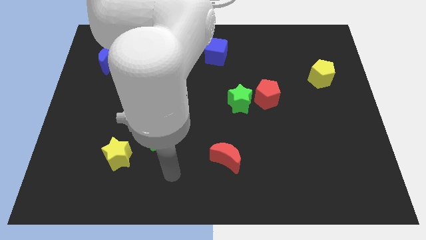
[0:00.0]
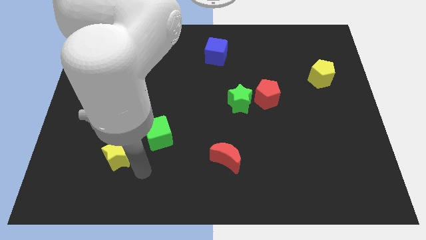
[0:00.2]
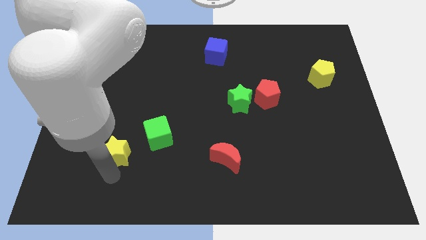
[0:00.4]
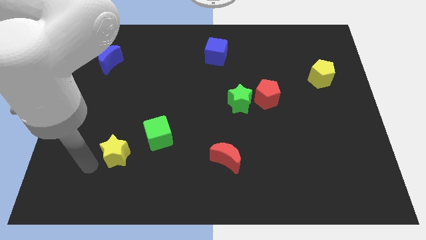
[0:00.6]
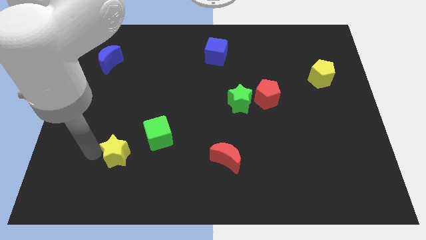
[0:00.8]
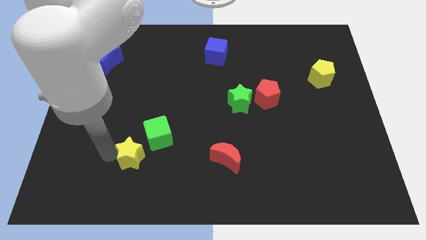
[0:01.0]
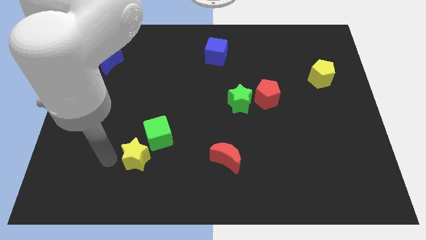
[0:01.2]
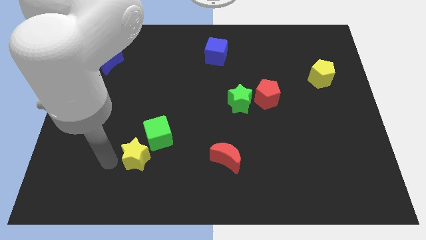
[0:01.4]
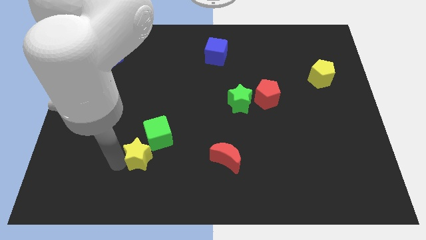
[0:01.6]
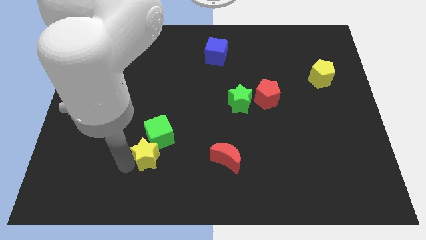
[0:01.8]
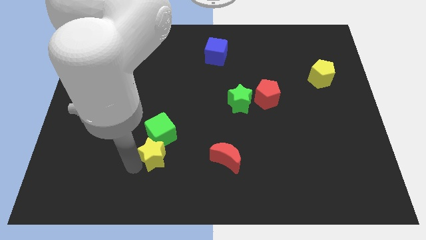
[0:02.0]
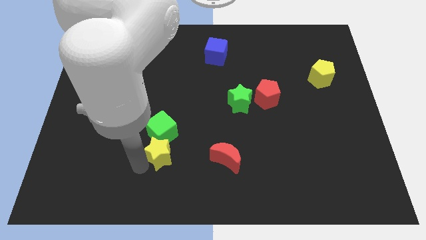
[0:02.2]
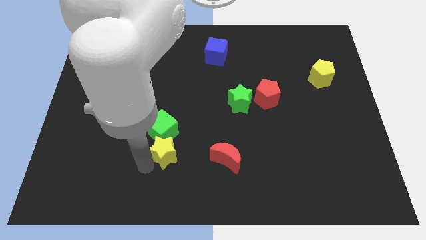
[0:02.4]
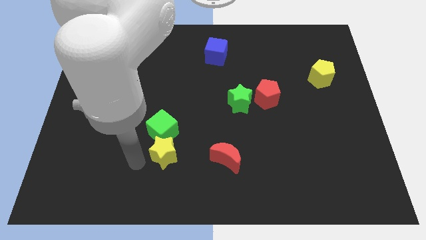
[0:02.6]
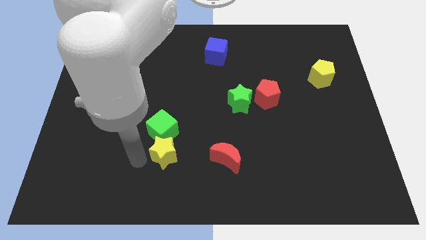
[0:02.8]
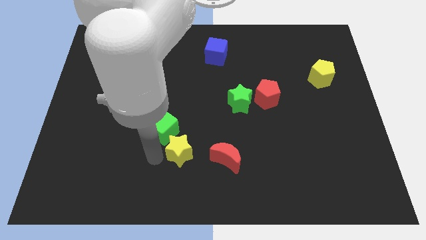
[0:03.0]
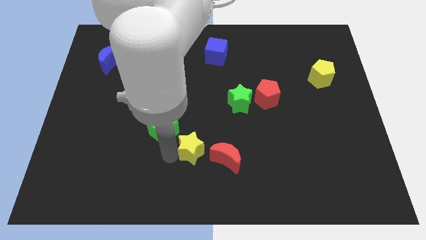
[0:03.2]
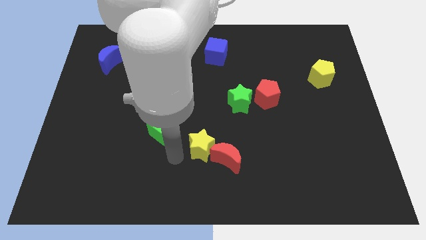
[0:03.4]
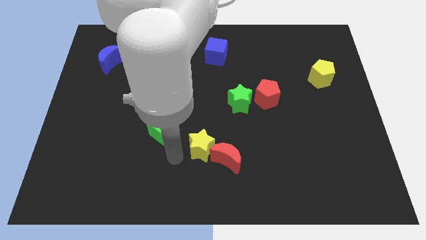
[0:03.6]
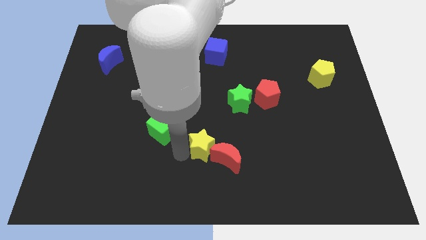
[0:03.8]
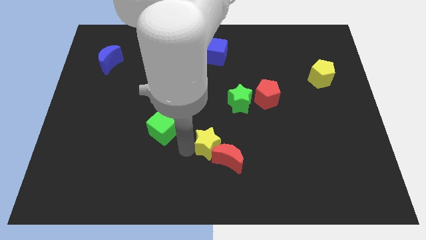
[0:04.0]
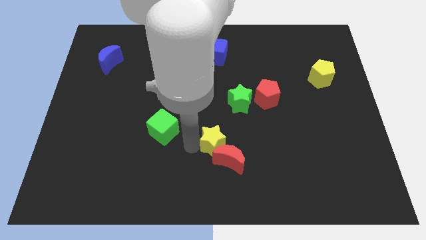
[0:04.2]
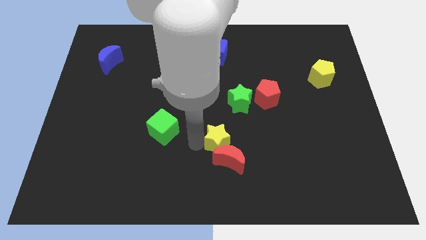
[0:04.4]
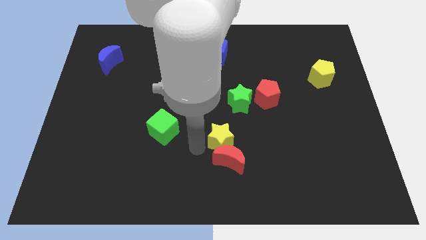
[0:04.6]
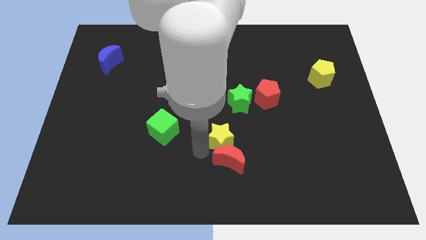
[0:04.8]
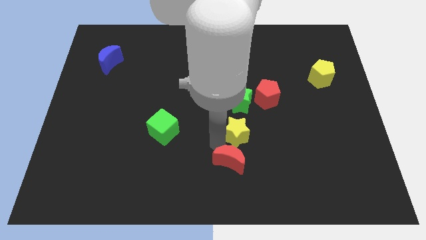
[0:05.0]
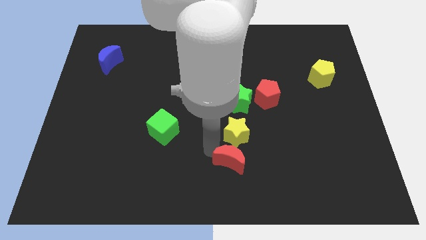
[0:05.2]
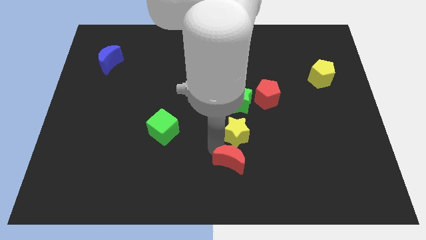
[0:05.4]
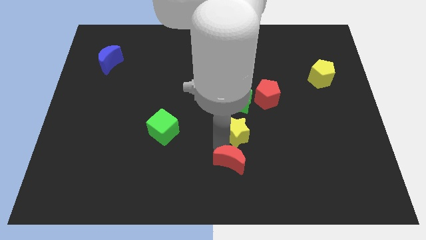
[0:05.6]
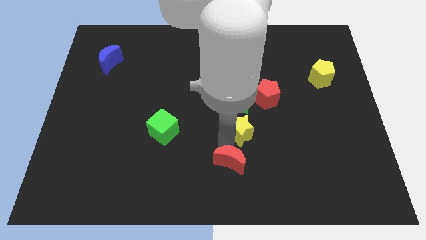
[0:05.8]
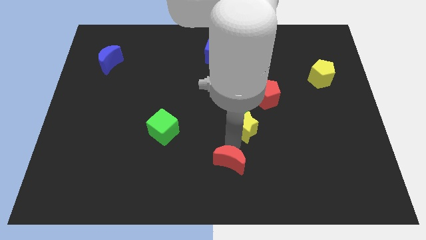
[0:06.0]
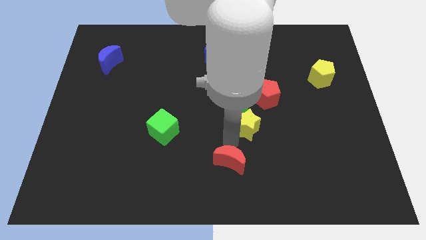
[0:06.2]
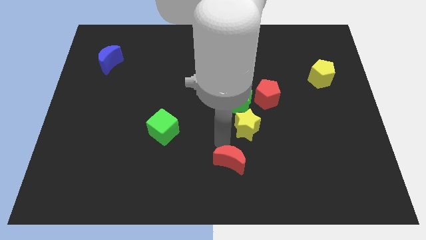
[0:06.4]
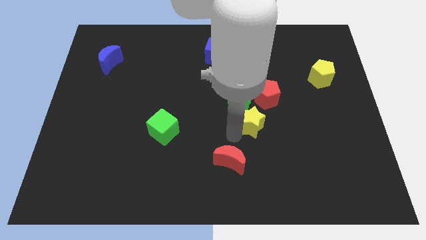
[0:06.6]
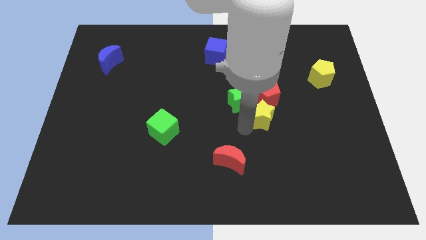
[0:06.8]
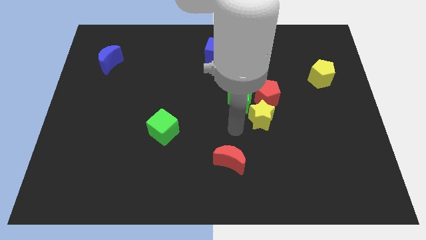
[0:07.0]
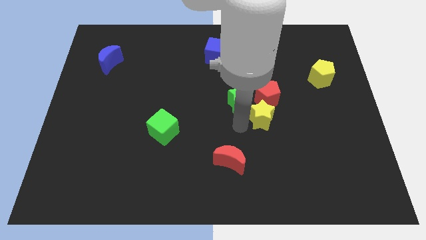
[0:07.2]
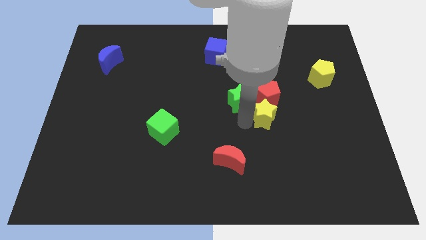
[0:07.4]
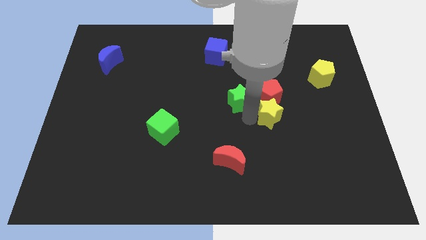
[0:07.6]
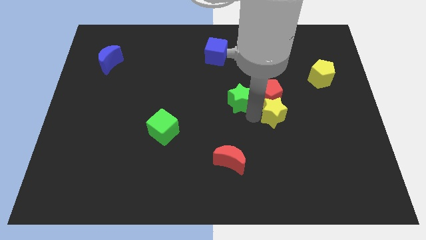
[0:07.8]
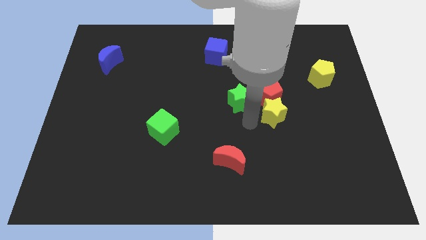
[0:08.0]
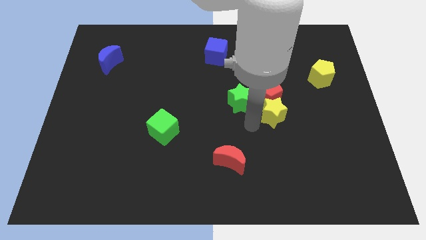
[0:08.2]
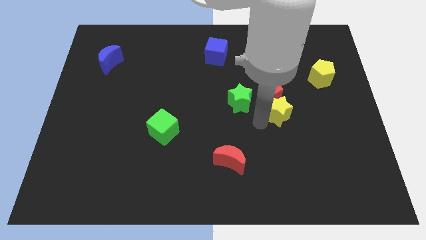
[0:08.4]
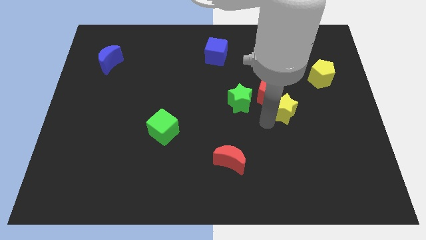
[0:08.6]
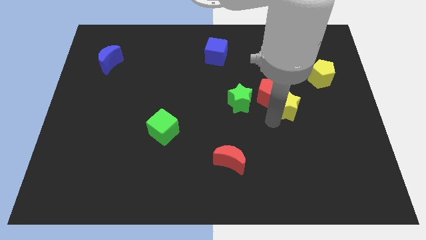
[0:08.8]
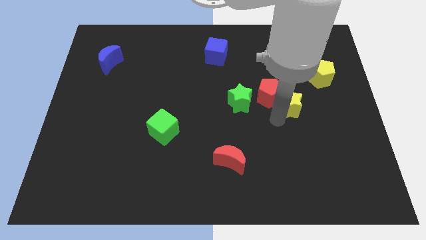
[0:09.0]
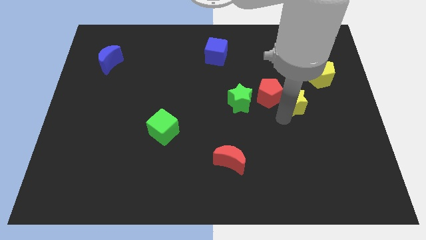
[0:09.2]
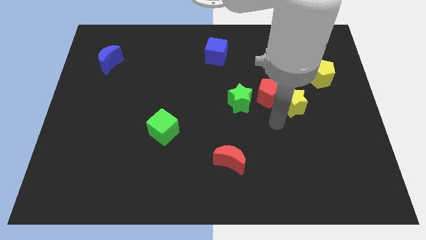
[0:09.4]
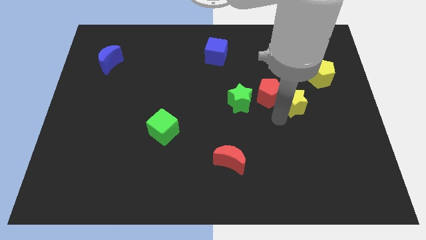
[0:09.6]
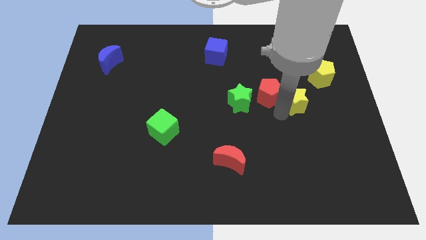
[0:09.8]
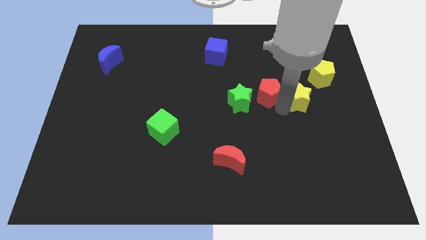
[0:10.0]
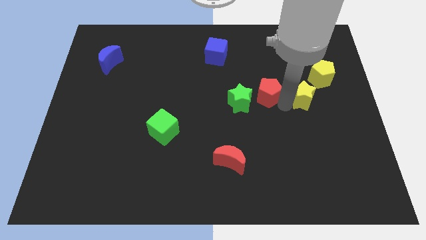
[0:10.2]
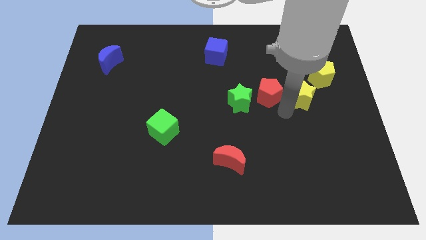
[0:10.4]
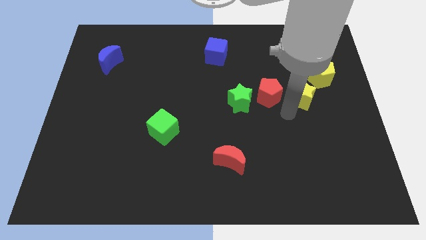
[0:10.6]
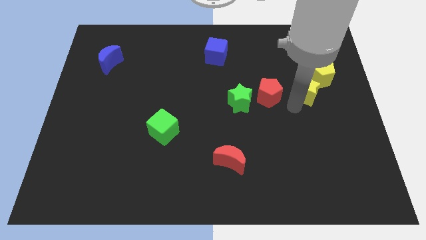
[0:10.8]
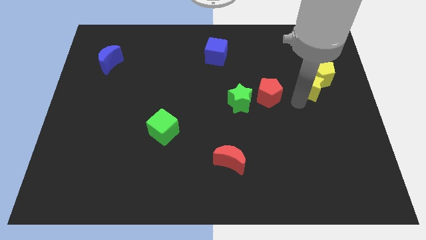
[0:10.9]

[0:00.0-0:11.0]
put the yellow star next to the yellow pentagon

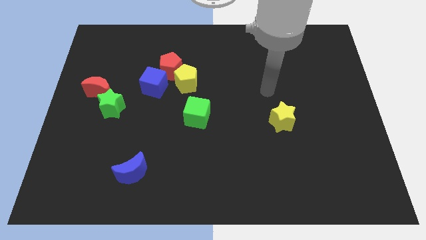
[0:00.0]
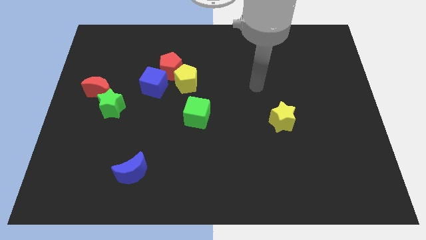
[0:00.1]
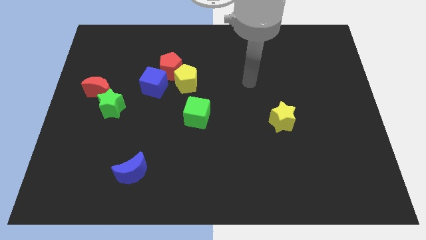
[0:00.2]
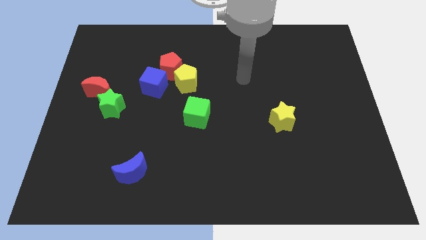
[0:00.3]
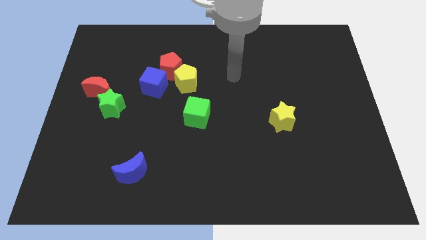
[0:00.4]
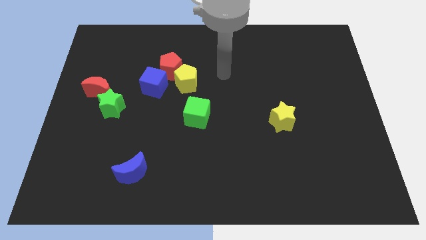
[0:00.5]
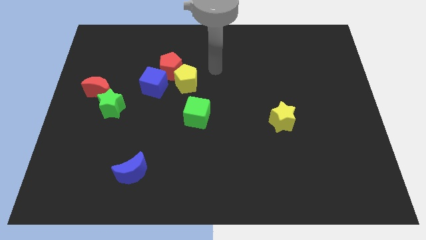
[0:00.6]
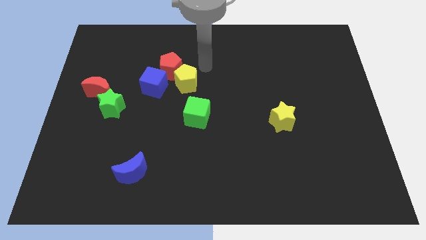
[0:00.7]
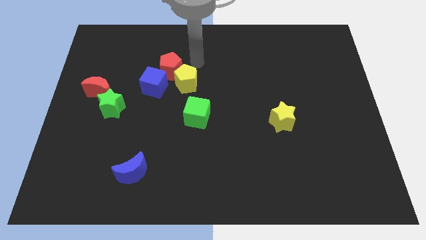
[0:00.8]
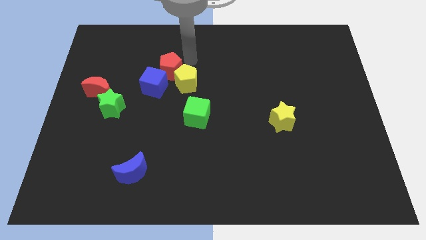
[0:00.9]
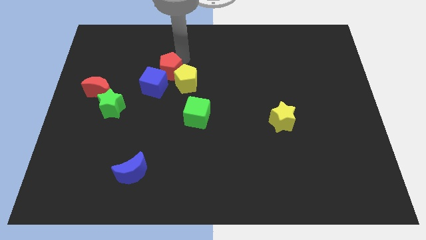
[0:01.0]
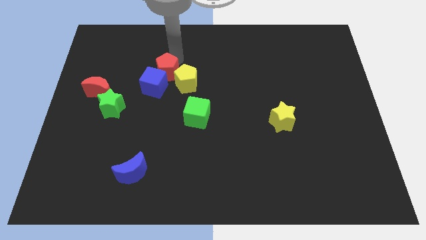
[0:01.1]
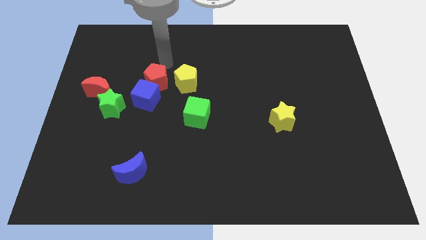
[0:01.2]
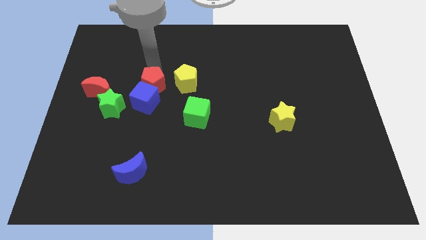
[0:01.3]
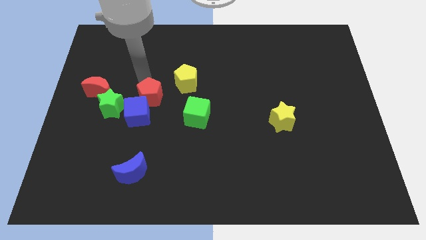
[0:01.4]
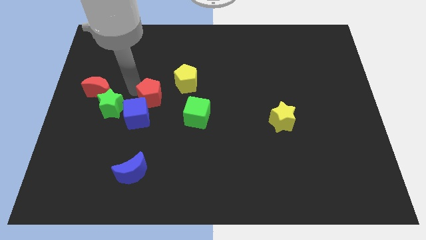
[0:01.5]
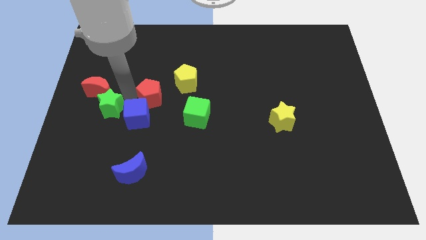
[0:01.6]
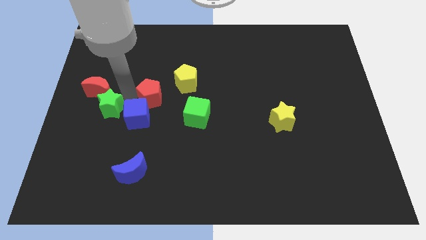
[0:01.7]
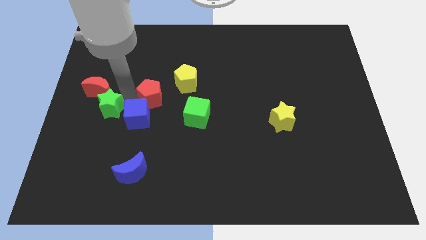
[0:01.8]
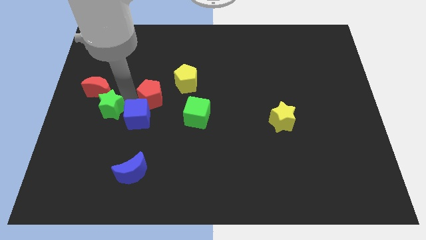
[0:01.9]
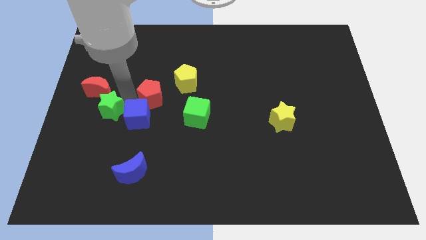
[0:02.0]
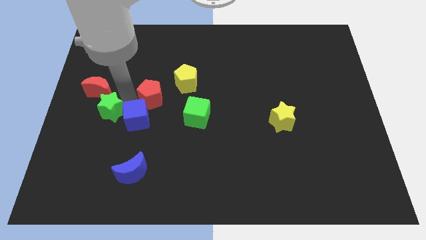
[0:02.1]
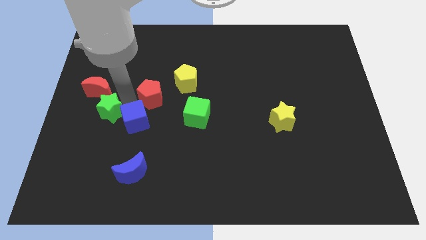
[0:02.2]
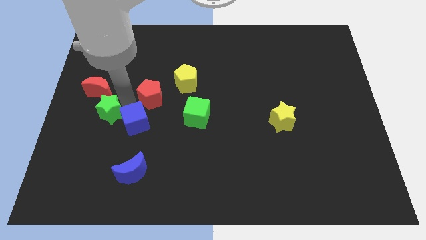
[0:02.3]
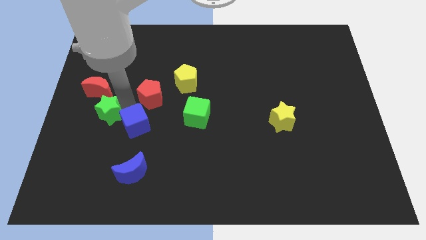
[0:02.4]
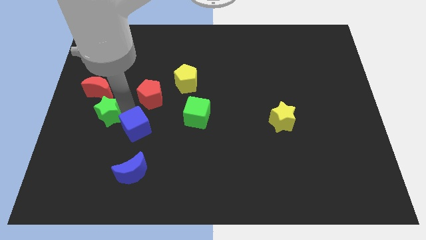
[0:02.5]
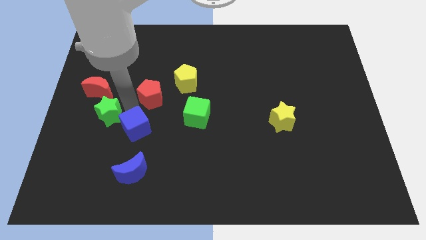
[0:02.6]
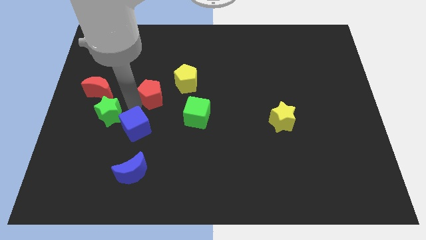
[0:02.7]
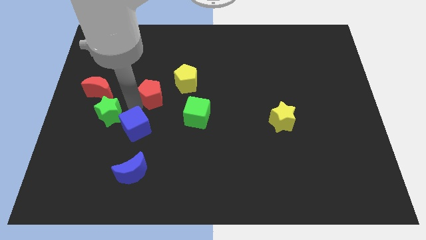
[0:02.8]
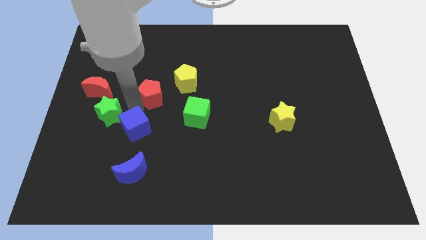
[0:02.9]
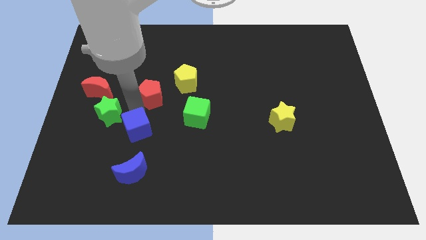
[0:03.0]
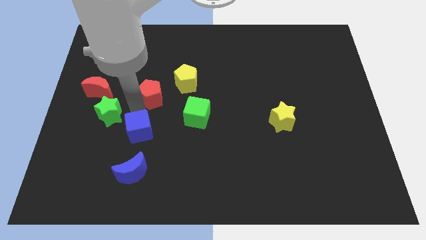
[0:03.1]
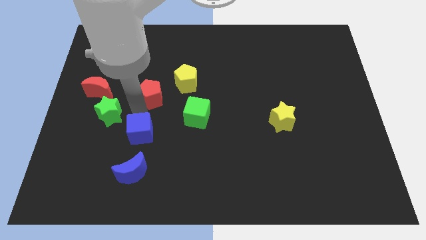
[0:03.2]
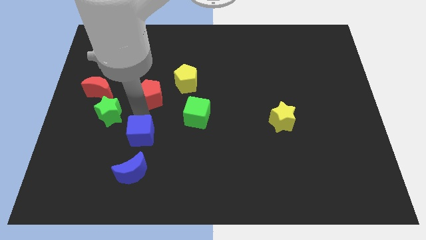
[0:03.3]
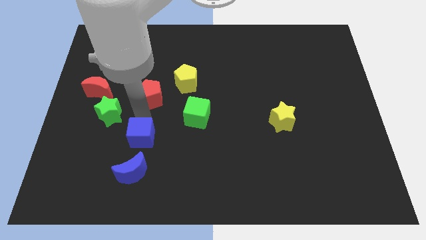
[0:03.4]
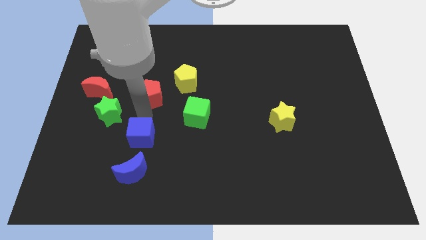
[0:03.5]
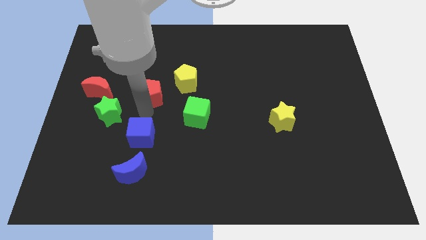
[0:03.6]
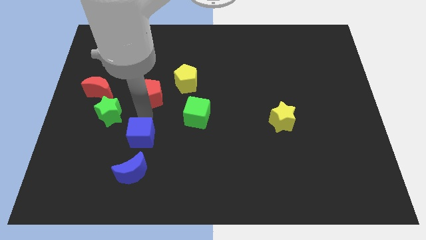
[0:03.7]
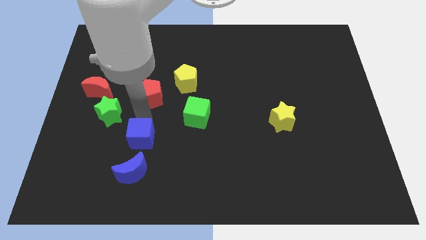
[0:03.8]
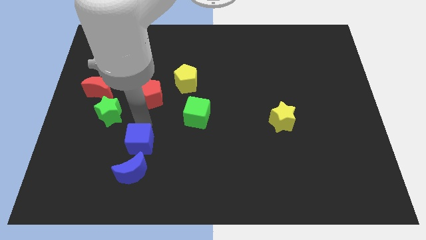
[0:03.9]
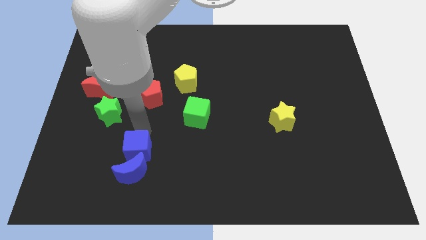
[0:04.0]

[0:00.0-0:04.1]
slide the blue cube towards the blue moon
